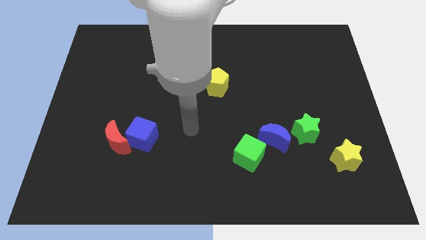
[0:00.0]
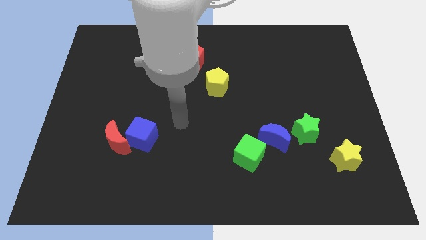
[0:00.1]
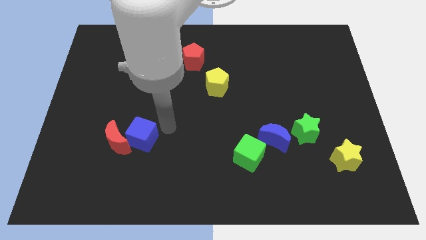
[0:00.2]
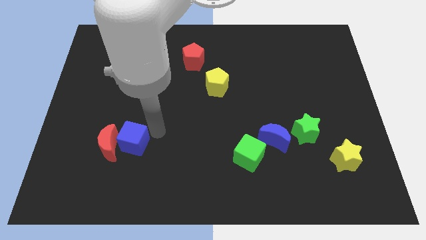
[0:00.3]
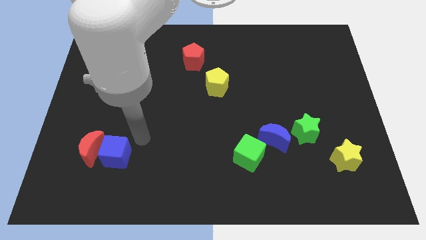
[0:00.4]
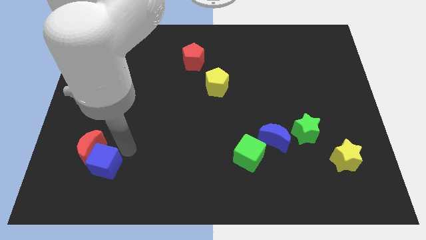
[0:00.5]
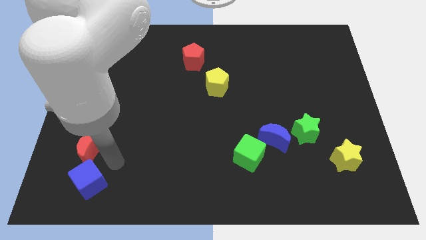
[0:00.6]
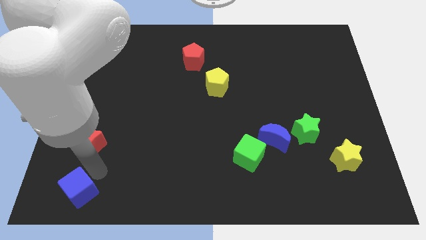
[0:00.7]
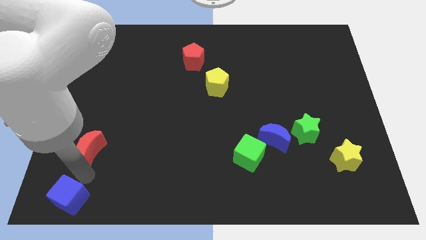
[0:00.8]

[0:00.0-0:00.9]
pull the red moon apart from the blue cube

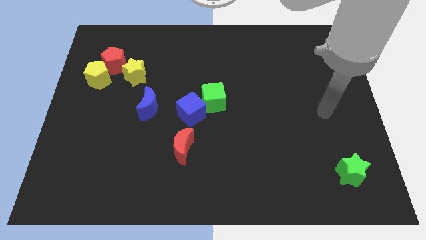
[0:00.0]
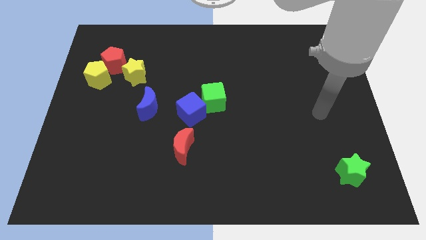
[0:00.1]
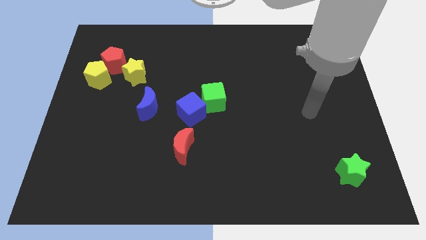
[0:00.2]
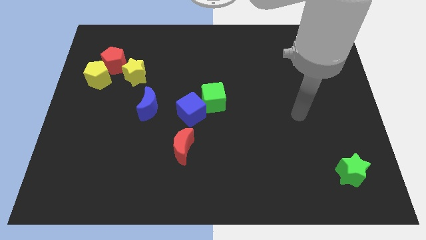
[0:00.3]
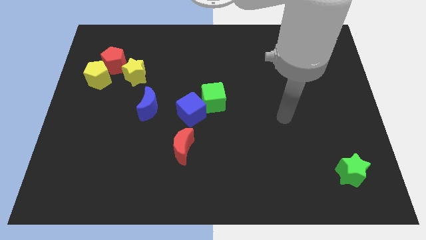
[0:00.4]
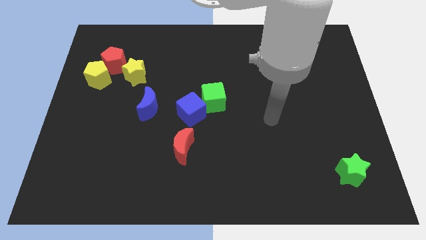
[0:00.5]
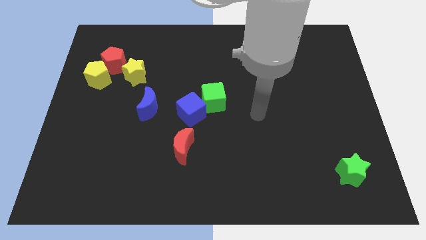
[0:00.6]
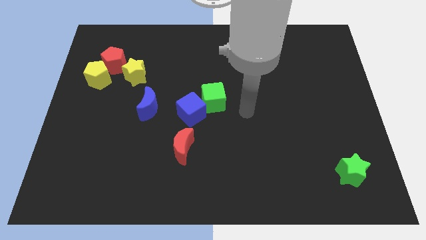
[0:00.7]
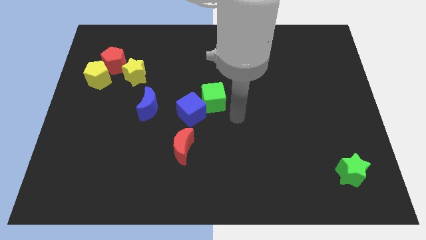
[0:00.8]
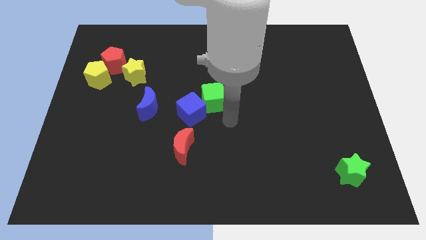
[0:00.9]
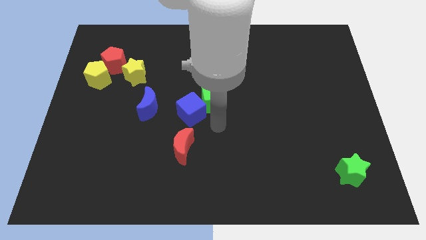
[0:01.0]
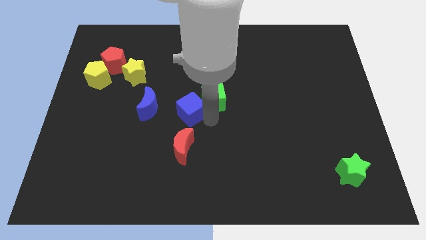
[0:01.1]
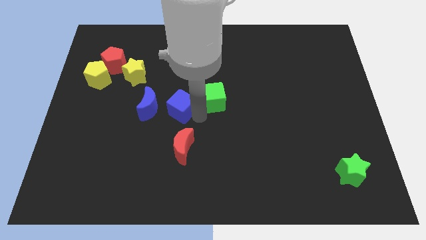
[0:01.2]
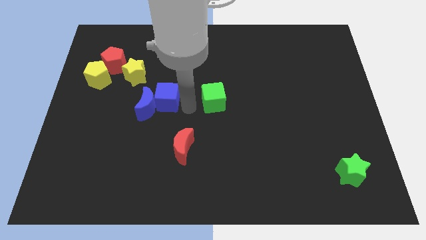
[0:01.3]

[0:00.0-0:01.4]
move the green cube away from the blue cube

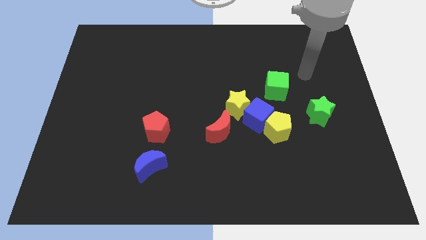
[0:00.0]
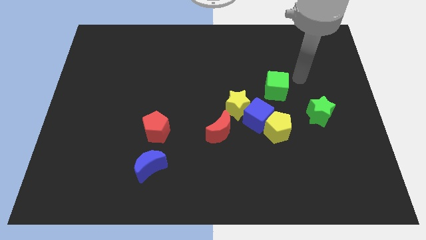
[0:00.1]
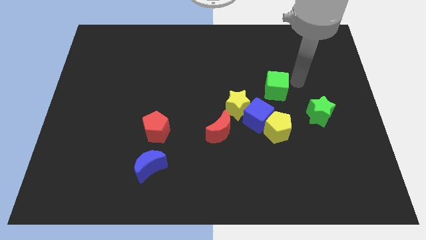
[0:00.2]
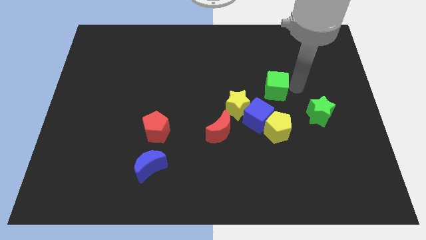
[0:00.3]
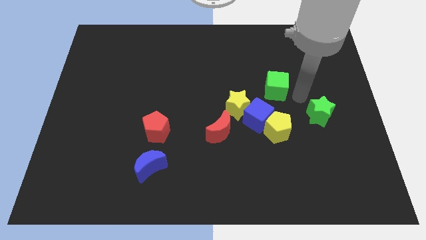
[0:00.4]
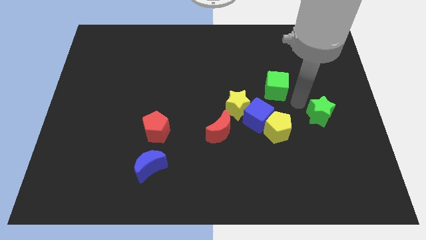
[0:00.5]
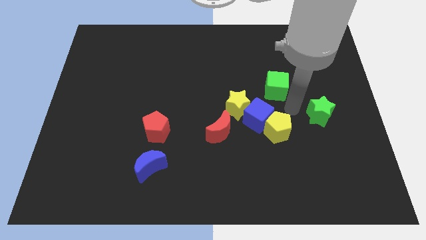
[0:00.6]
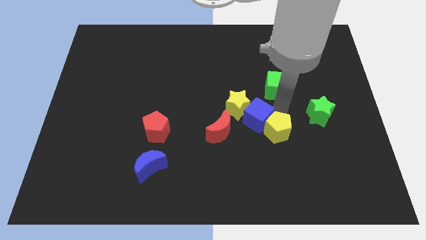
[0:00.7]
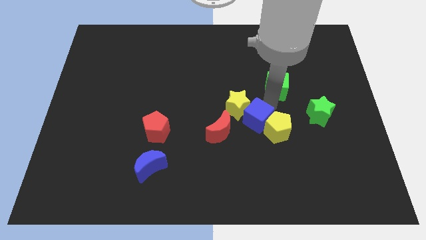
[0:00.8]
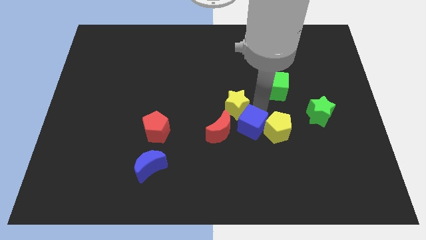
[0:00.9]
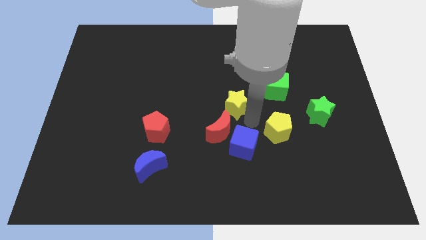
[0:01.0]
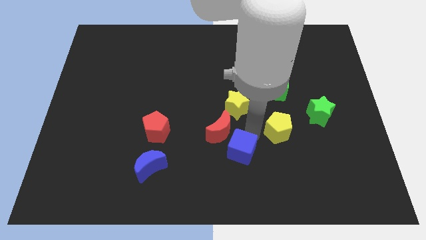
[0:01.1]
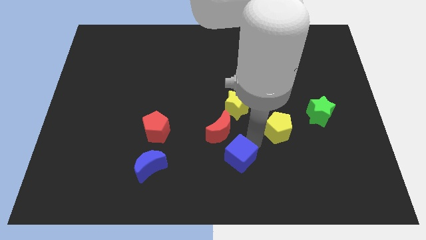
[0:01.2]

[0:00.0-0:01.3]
move the yellow pentagon away from the blue cube

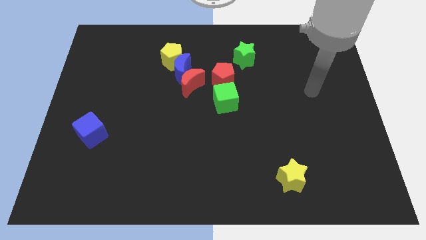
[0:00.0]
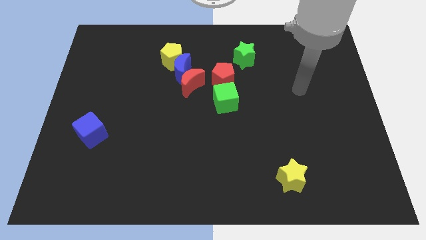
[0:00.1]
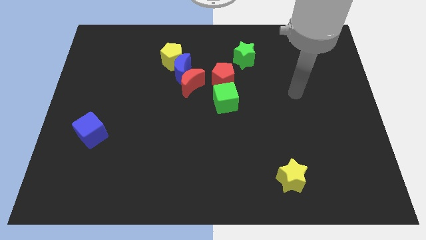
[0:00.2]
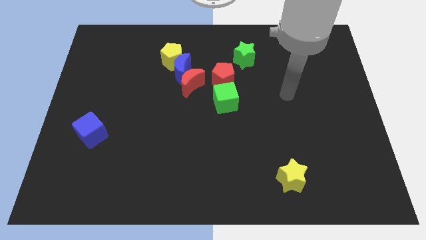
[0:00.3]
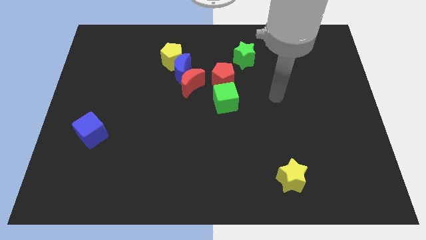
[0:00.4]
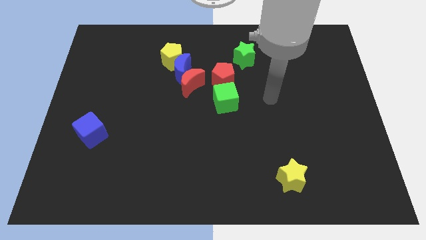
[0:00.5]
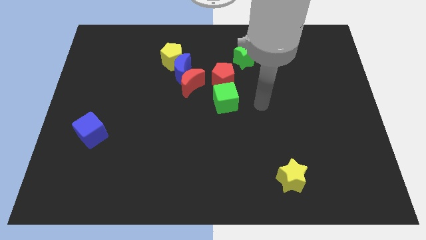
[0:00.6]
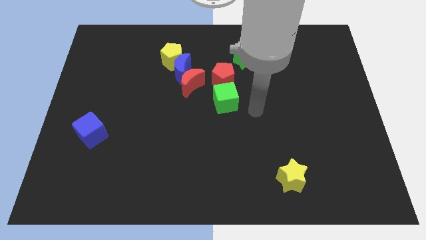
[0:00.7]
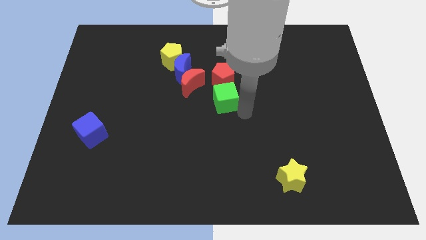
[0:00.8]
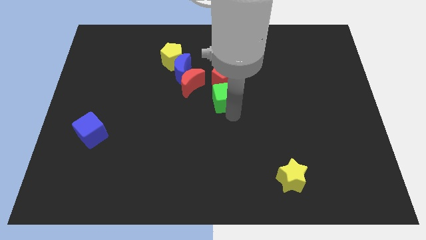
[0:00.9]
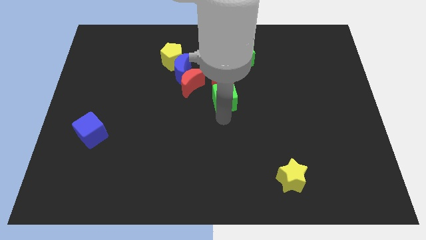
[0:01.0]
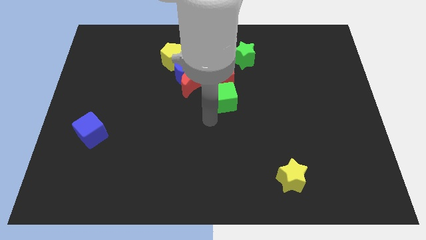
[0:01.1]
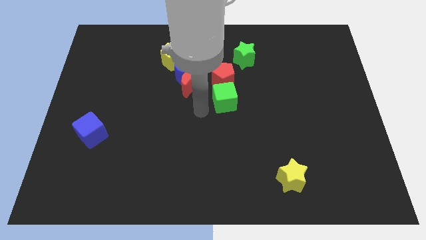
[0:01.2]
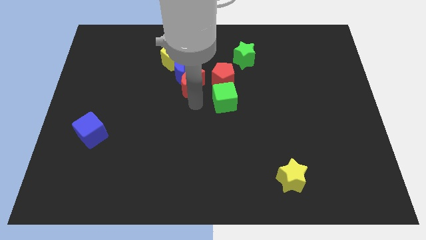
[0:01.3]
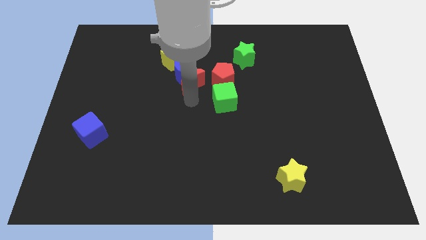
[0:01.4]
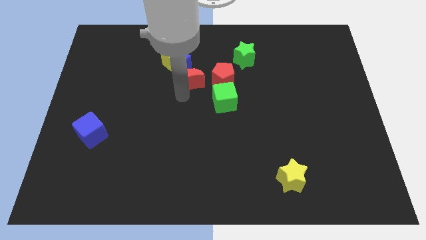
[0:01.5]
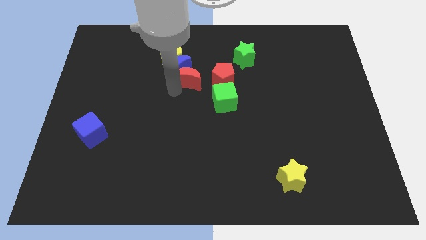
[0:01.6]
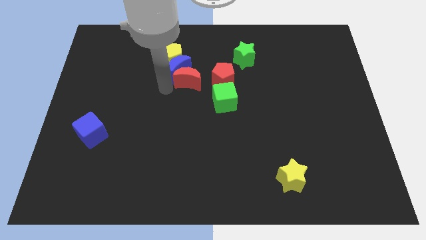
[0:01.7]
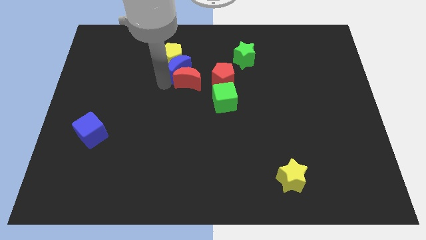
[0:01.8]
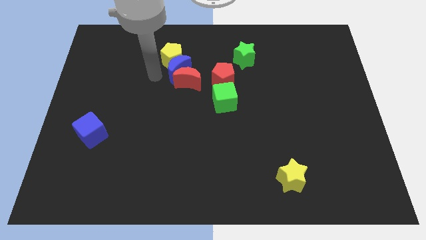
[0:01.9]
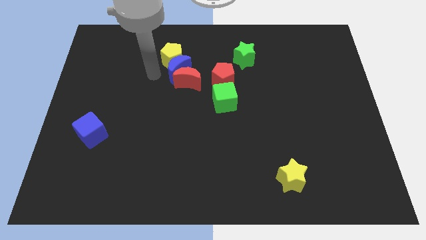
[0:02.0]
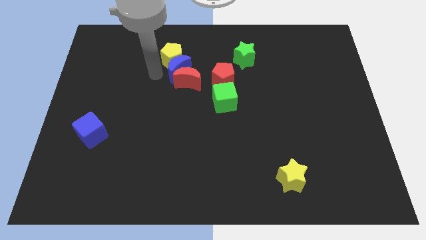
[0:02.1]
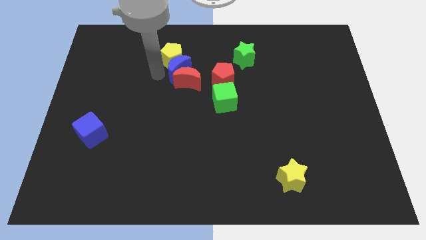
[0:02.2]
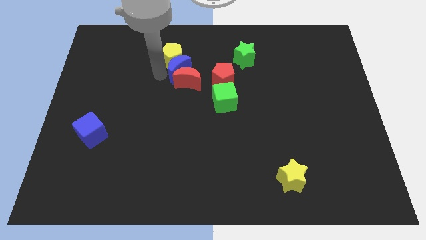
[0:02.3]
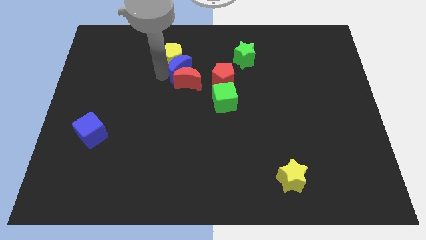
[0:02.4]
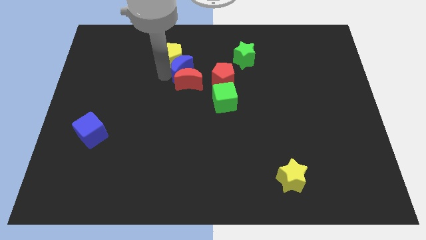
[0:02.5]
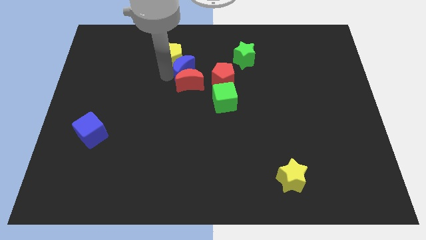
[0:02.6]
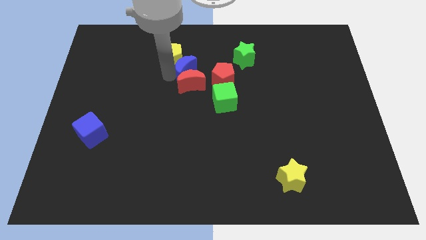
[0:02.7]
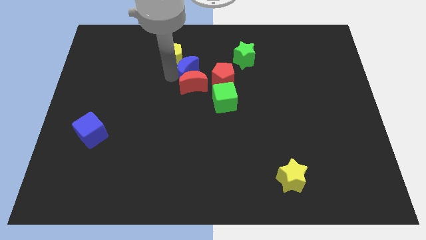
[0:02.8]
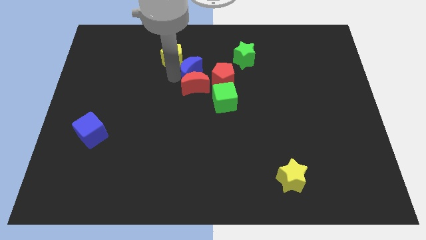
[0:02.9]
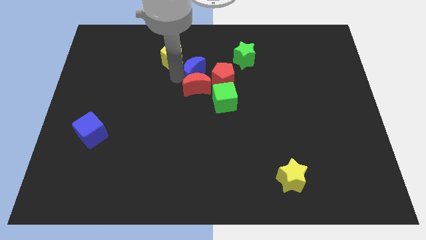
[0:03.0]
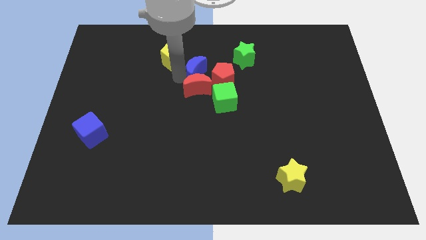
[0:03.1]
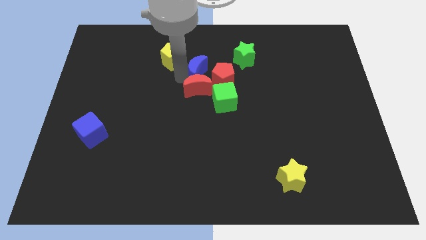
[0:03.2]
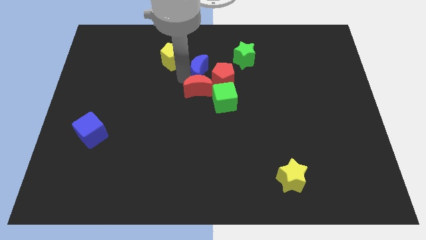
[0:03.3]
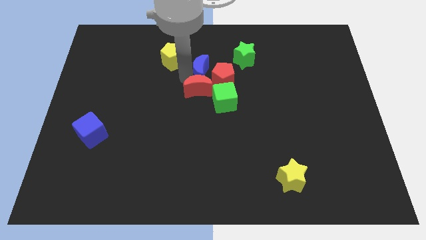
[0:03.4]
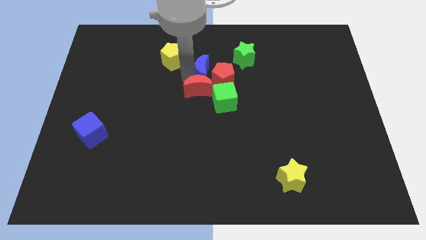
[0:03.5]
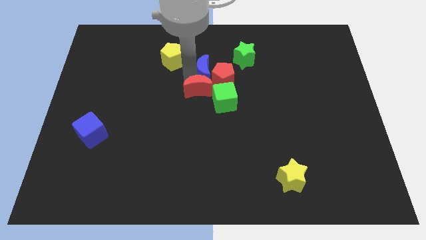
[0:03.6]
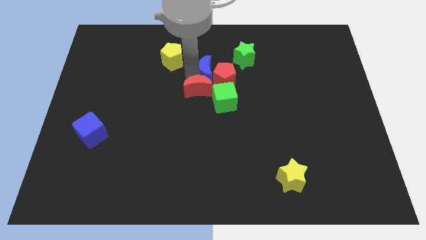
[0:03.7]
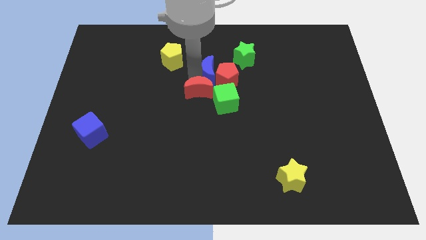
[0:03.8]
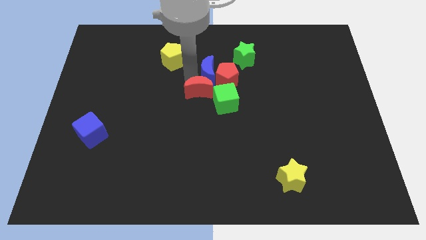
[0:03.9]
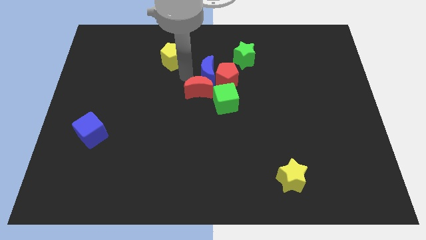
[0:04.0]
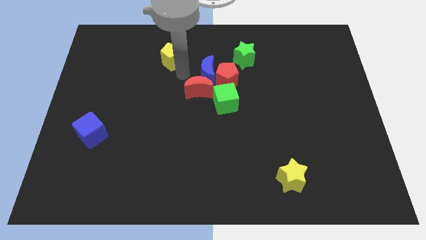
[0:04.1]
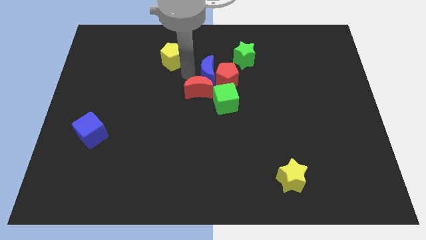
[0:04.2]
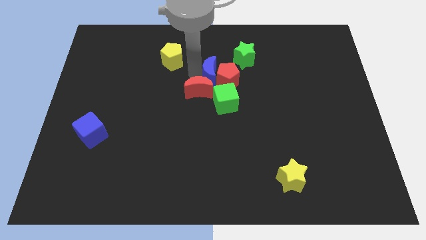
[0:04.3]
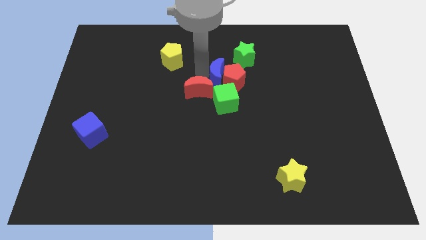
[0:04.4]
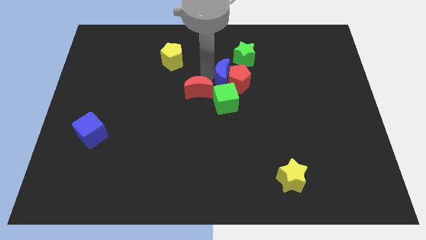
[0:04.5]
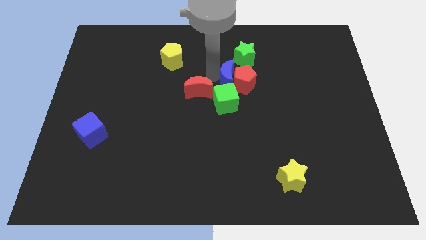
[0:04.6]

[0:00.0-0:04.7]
move the blue moon away from the red moon and yellow pentagon

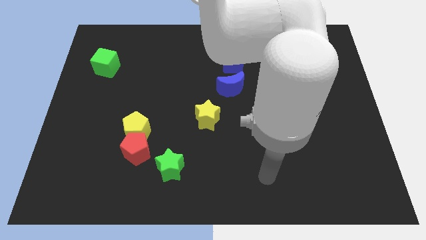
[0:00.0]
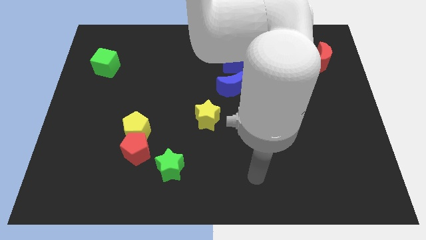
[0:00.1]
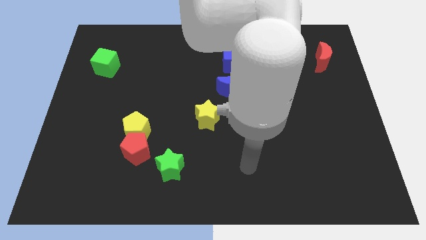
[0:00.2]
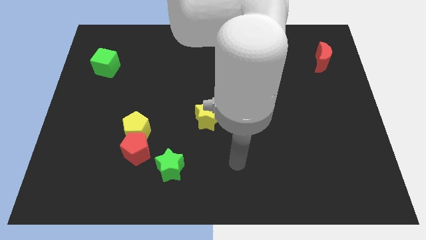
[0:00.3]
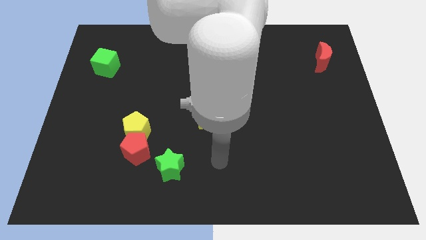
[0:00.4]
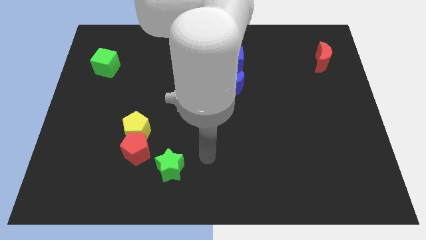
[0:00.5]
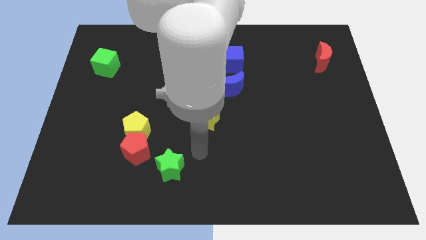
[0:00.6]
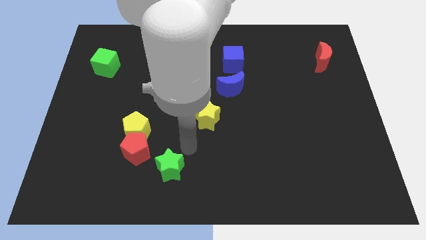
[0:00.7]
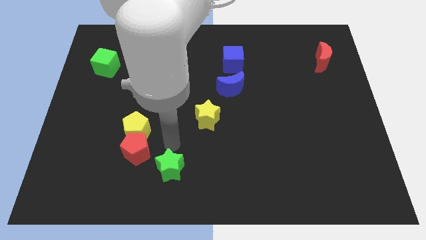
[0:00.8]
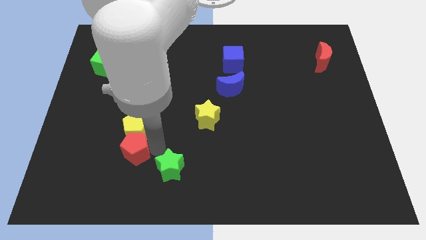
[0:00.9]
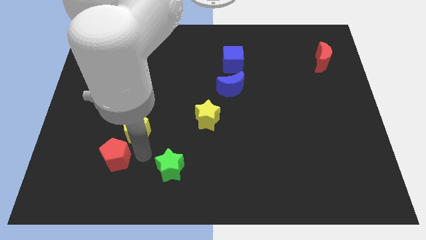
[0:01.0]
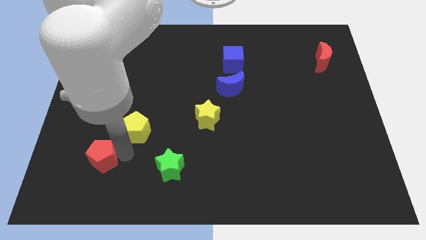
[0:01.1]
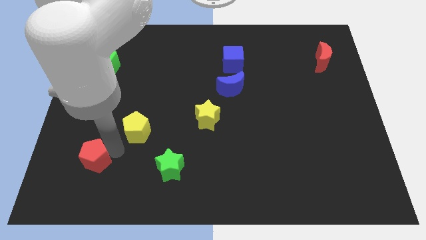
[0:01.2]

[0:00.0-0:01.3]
pull the yellow pentagon apart from the red pentagon
